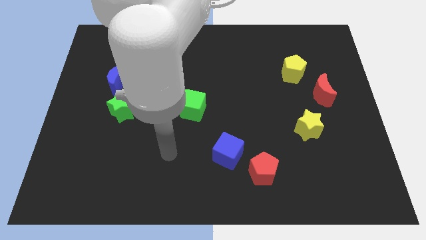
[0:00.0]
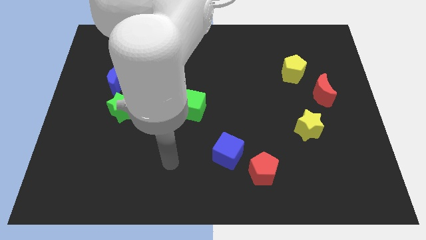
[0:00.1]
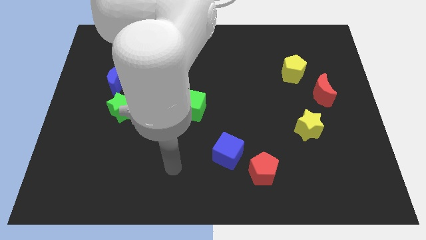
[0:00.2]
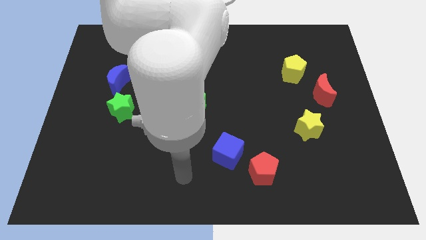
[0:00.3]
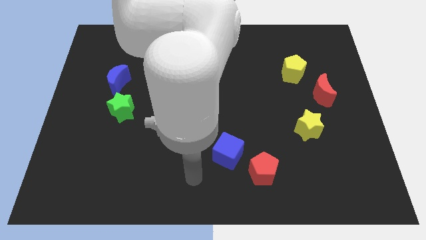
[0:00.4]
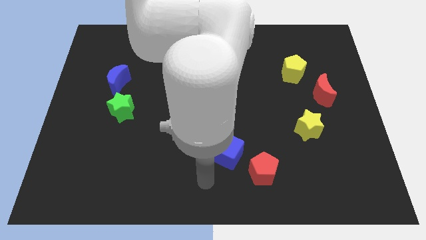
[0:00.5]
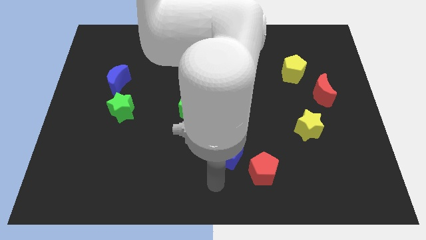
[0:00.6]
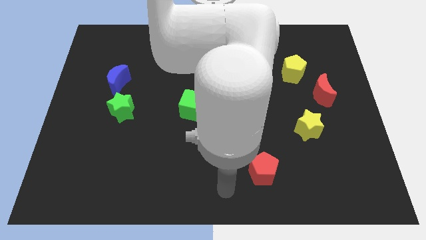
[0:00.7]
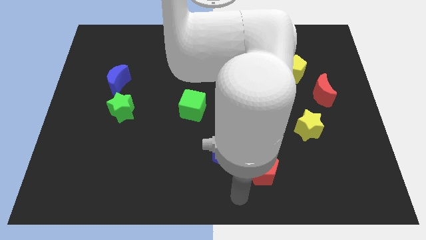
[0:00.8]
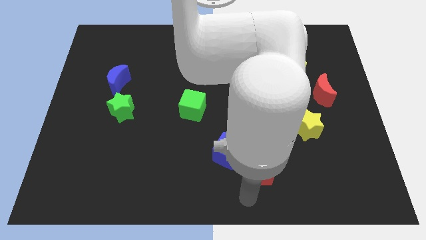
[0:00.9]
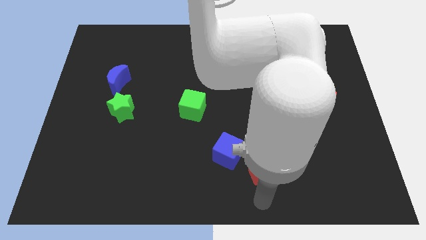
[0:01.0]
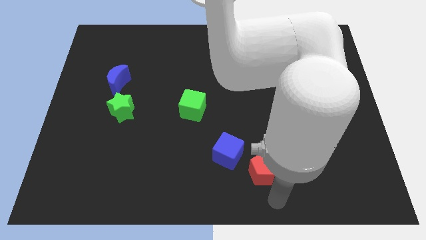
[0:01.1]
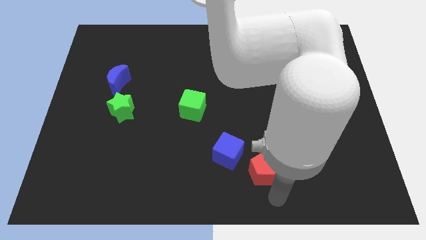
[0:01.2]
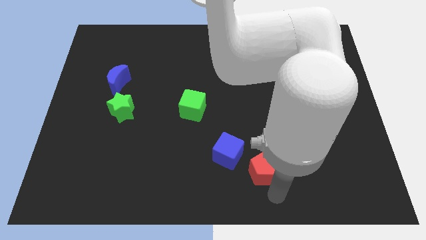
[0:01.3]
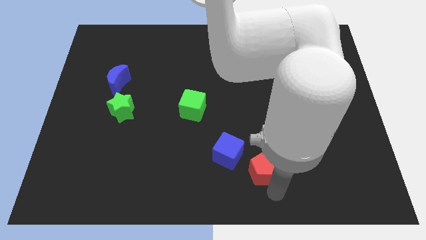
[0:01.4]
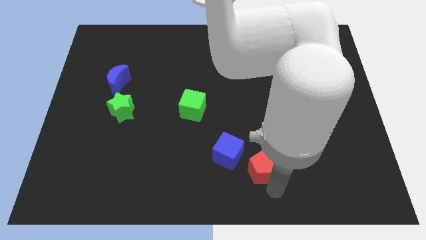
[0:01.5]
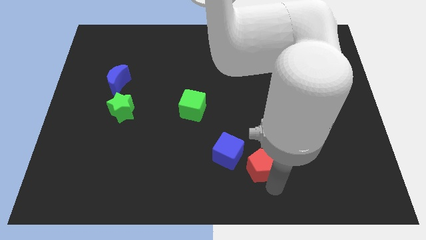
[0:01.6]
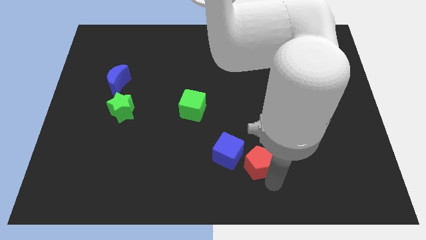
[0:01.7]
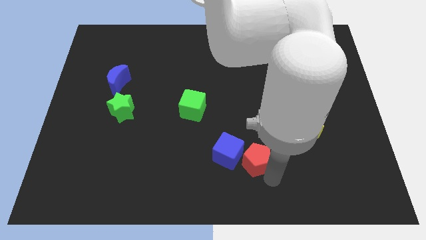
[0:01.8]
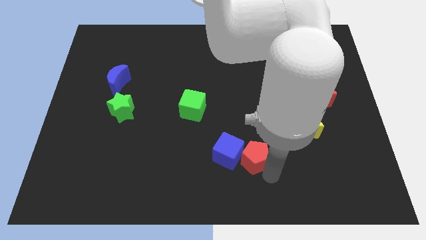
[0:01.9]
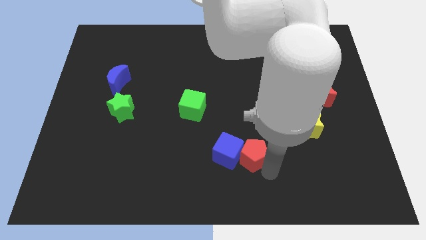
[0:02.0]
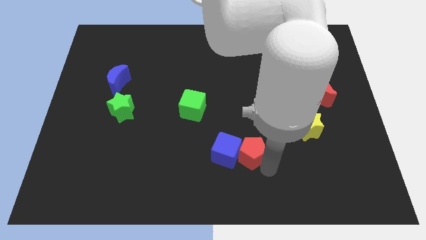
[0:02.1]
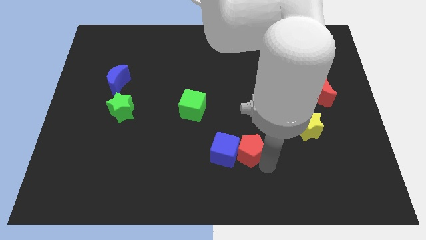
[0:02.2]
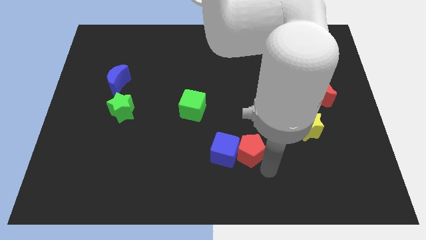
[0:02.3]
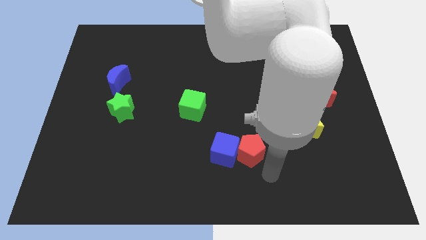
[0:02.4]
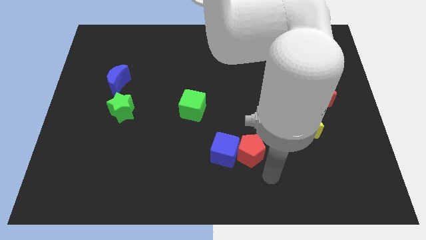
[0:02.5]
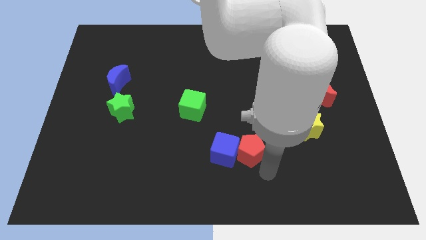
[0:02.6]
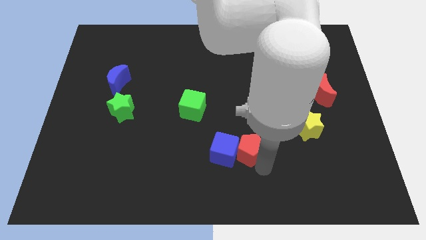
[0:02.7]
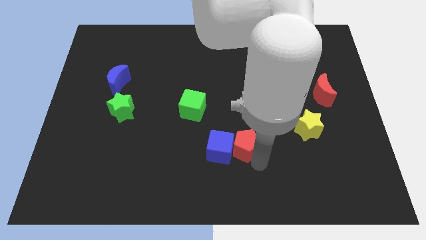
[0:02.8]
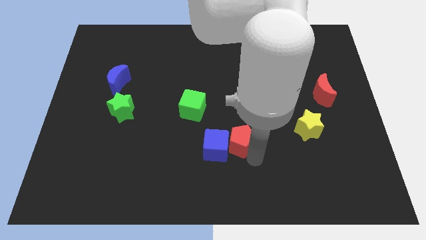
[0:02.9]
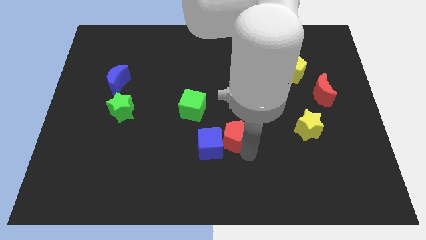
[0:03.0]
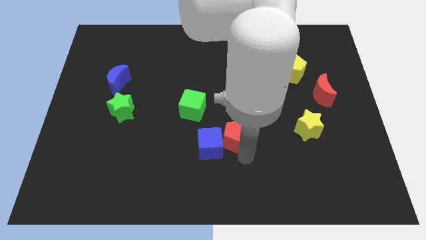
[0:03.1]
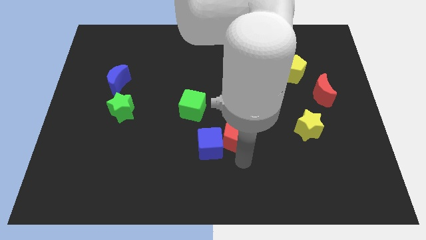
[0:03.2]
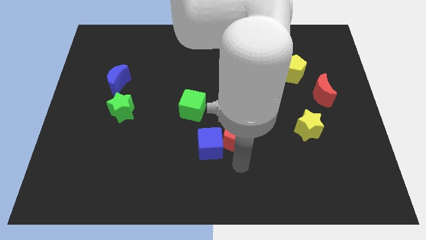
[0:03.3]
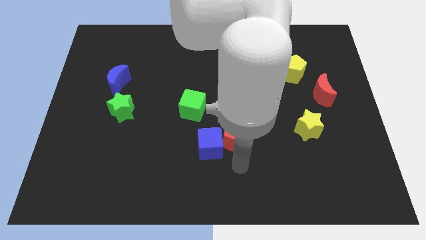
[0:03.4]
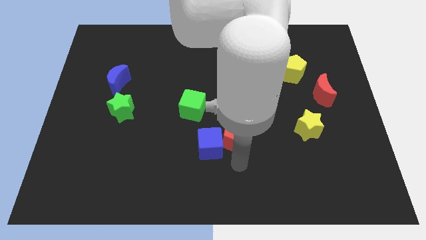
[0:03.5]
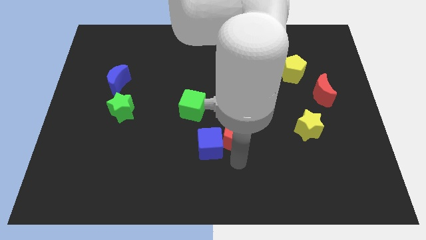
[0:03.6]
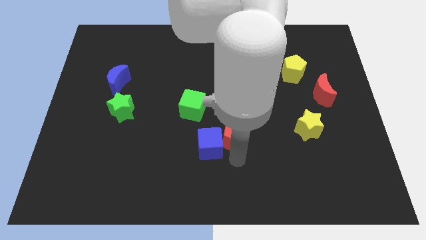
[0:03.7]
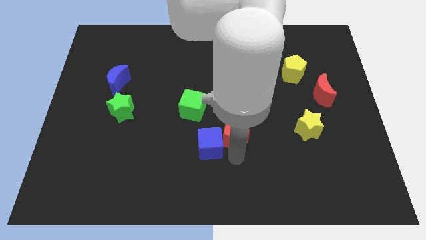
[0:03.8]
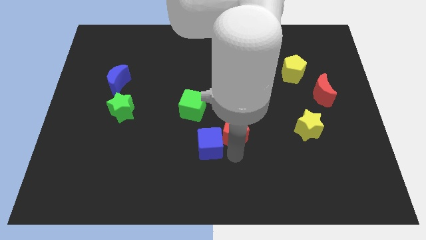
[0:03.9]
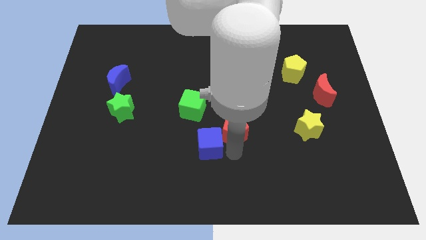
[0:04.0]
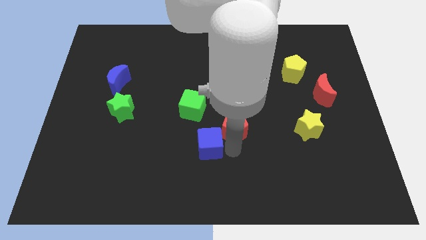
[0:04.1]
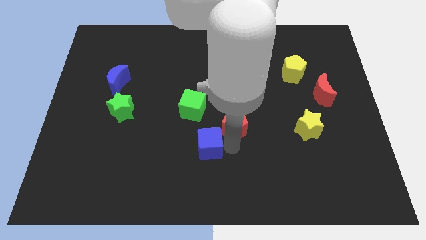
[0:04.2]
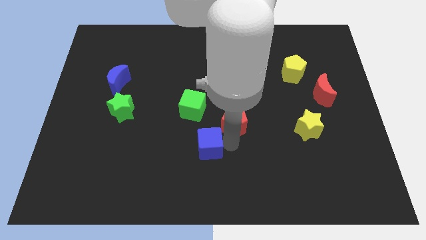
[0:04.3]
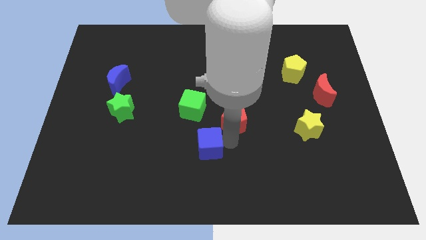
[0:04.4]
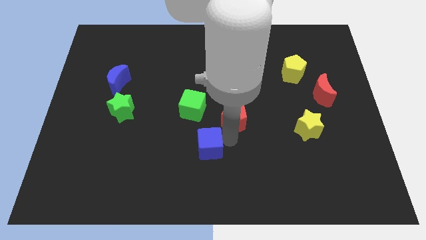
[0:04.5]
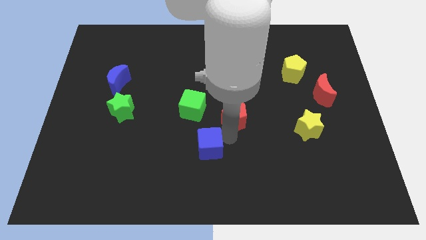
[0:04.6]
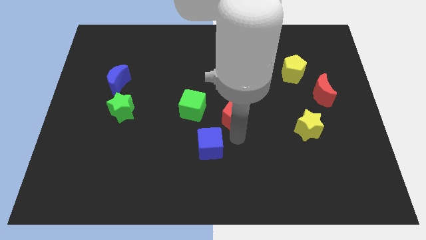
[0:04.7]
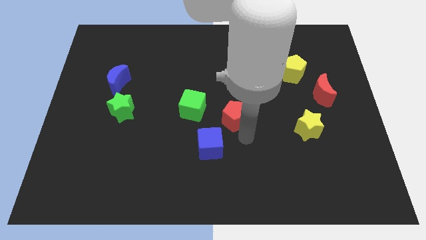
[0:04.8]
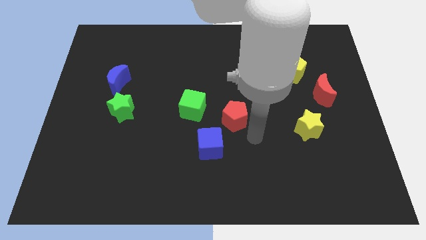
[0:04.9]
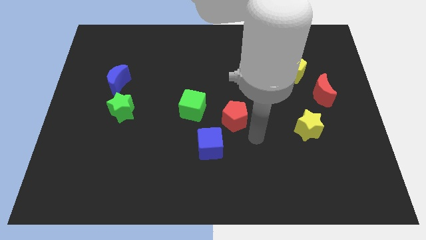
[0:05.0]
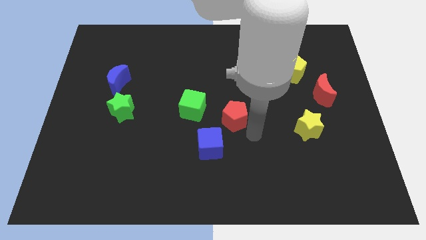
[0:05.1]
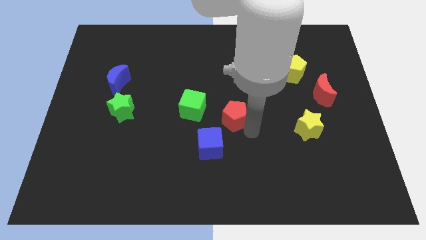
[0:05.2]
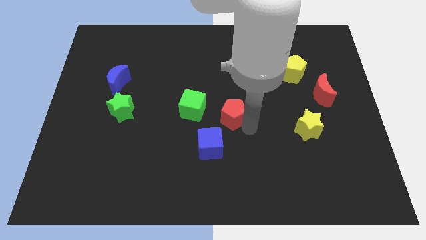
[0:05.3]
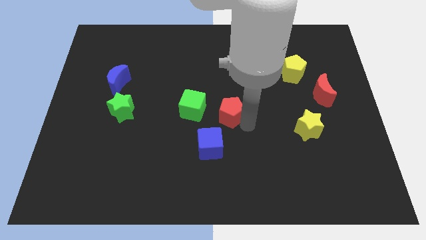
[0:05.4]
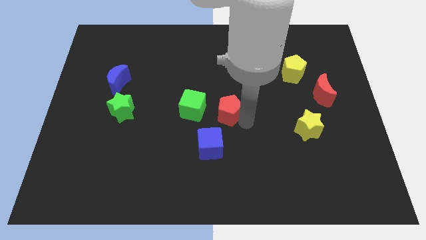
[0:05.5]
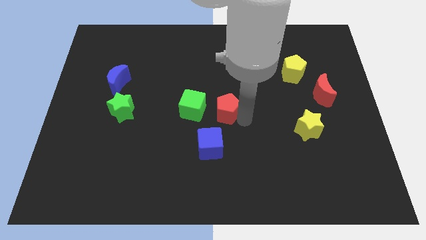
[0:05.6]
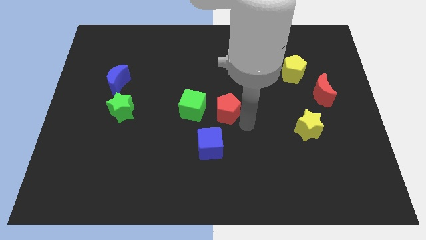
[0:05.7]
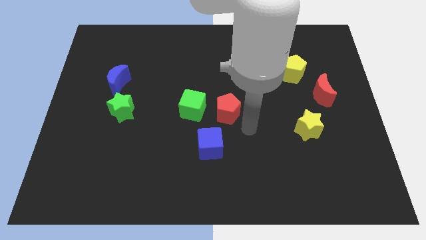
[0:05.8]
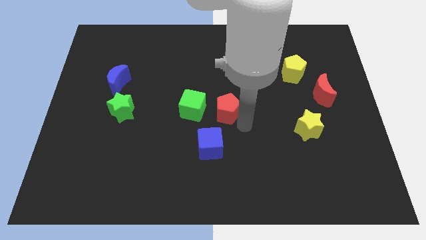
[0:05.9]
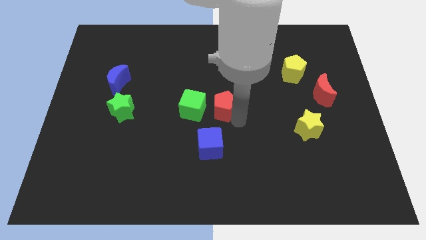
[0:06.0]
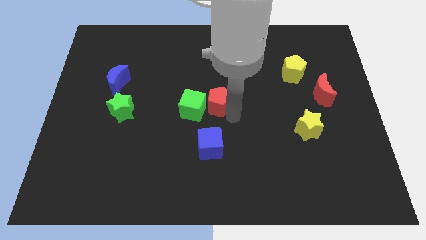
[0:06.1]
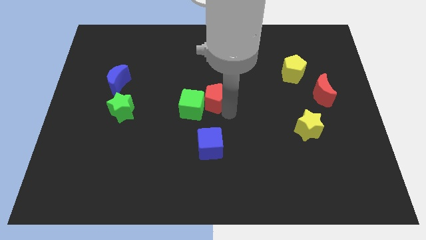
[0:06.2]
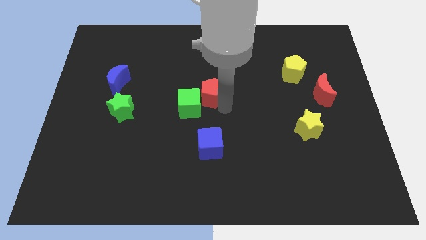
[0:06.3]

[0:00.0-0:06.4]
move the red pentagon upwards and to the left diagonally

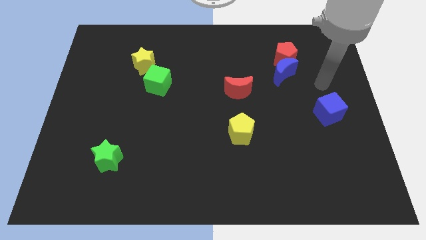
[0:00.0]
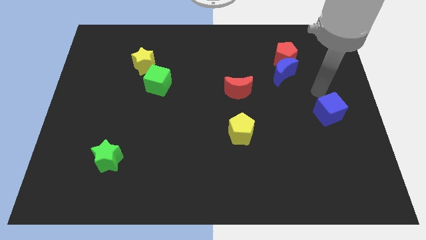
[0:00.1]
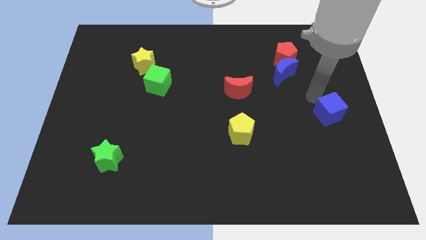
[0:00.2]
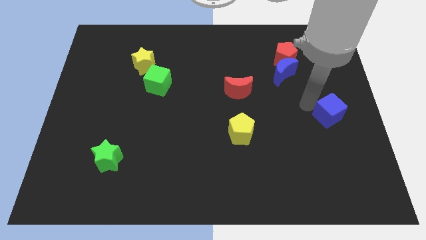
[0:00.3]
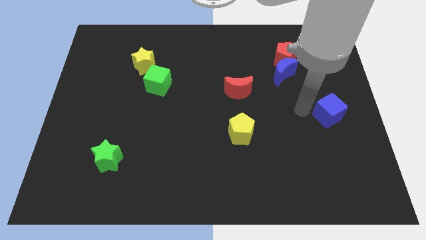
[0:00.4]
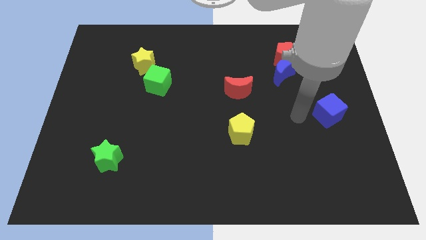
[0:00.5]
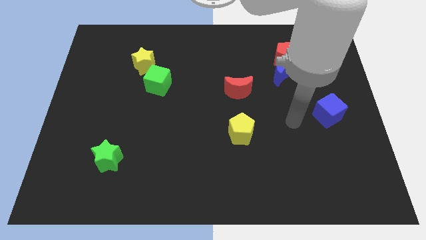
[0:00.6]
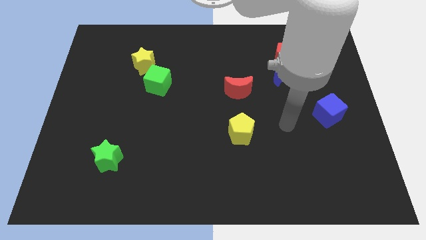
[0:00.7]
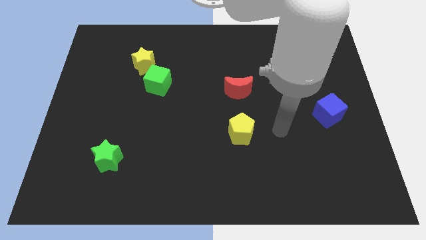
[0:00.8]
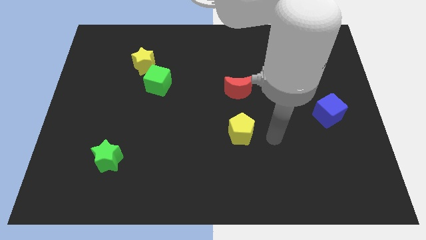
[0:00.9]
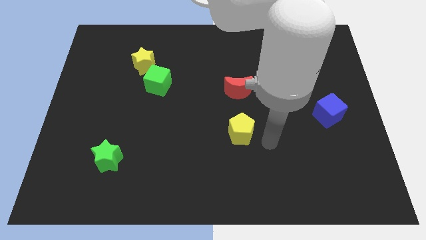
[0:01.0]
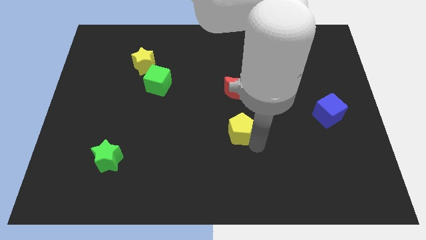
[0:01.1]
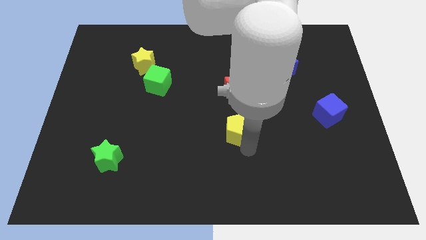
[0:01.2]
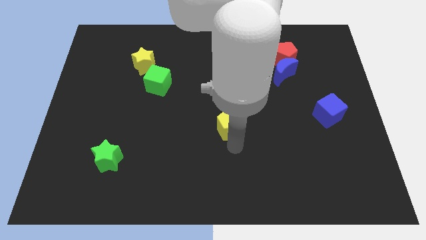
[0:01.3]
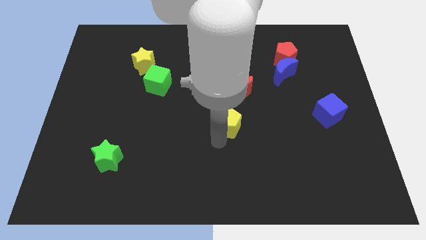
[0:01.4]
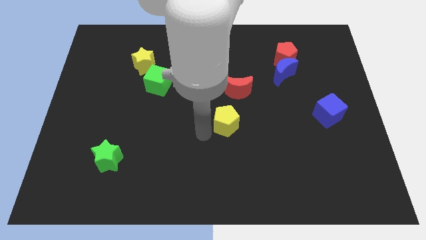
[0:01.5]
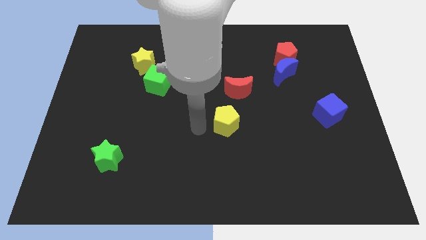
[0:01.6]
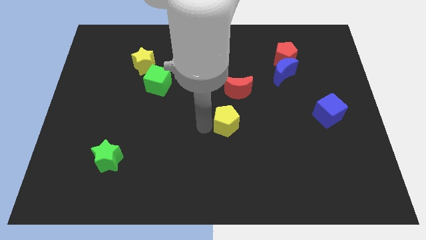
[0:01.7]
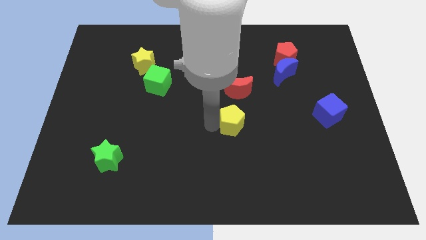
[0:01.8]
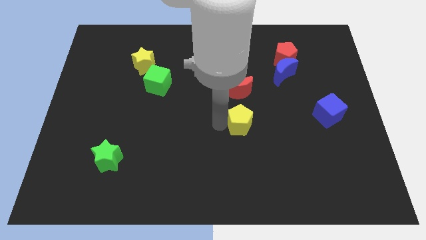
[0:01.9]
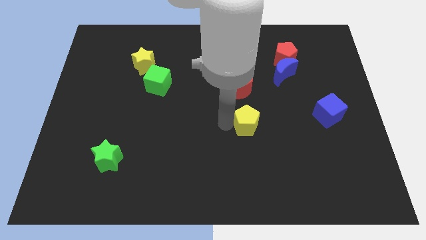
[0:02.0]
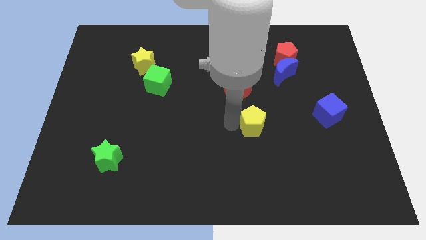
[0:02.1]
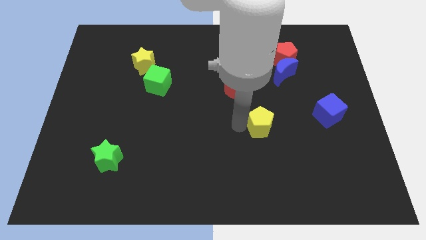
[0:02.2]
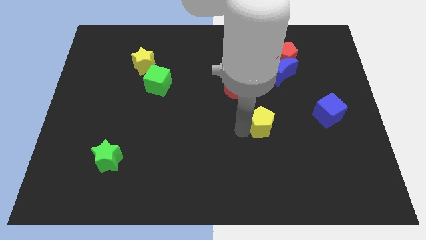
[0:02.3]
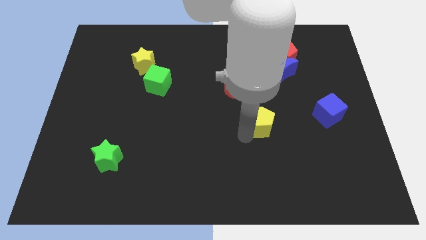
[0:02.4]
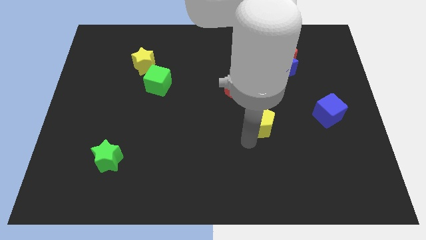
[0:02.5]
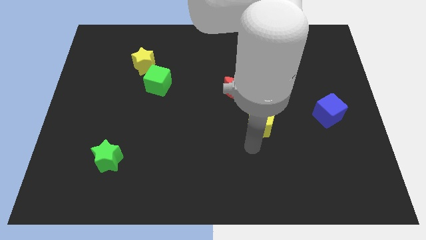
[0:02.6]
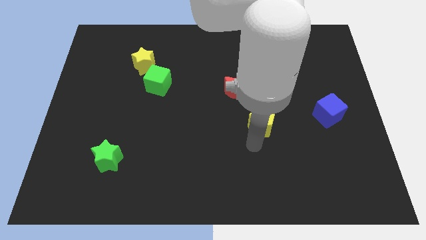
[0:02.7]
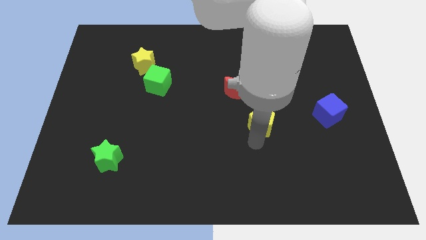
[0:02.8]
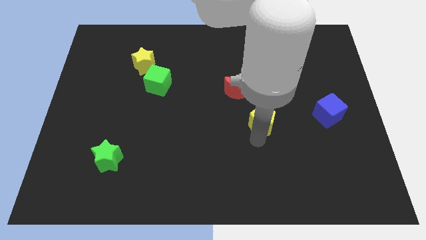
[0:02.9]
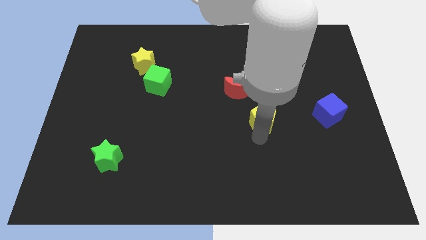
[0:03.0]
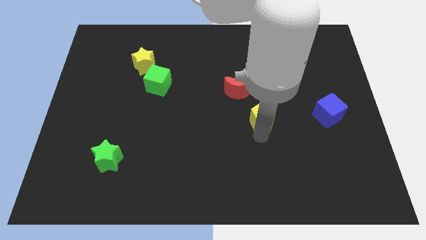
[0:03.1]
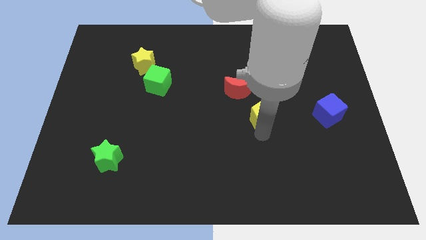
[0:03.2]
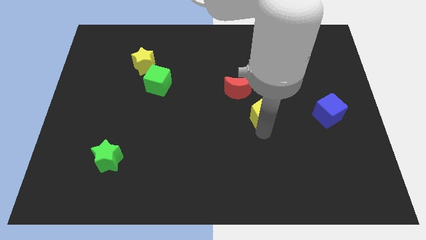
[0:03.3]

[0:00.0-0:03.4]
slightly push the yellow pentagon diagonally upwards and right
